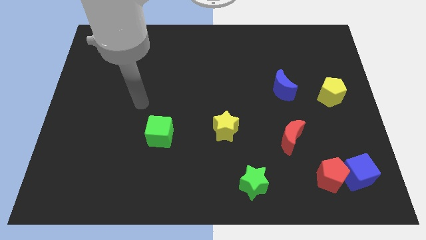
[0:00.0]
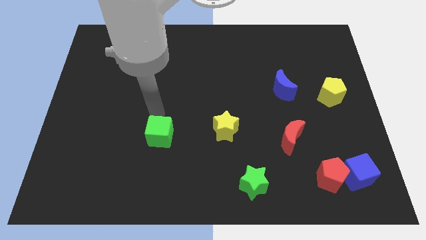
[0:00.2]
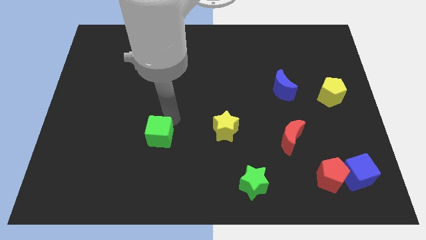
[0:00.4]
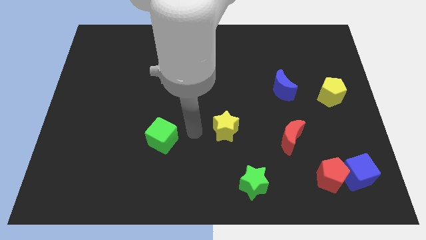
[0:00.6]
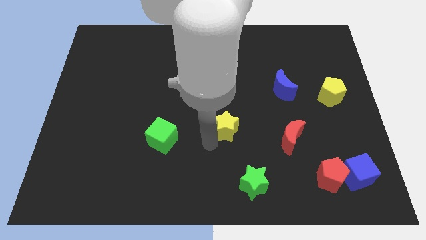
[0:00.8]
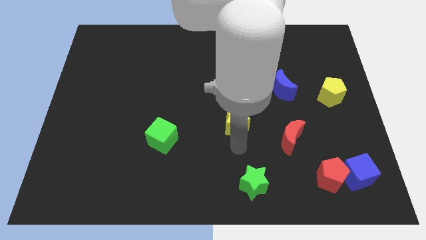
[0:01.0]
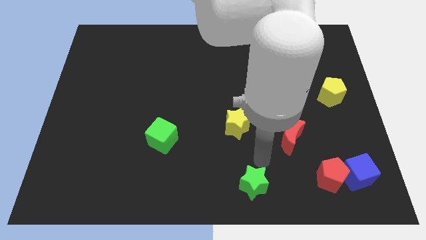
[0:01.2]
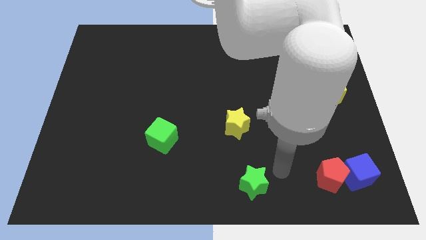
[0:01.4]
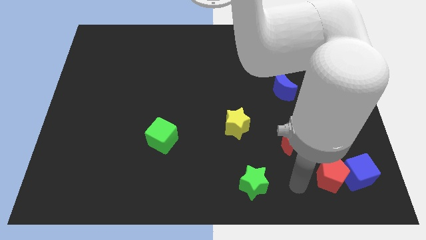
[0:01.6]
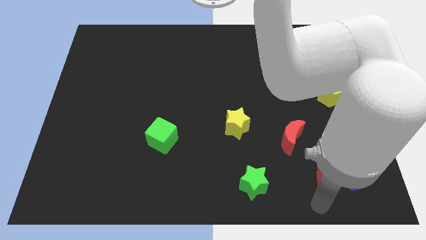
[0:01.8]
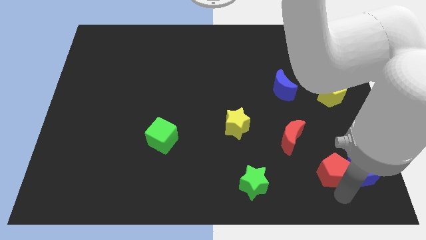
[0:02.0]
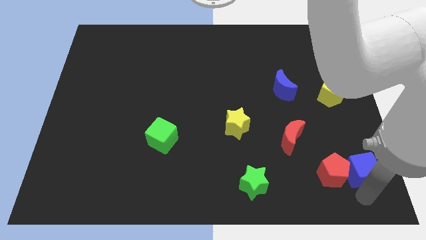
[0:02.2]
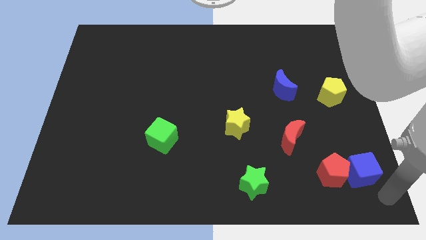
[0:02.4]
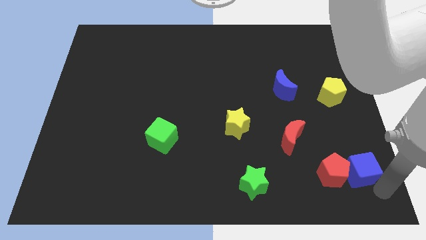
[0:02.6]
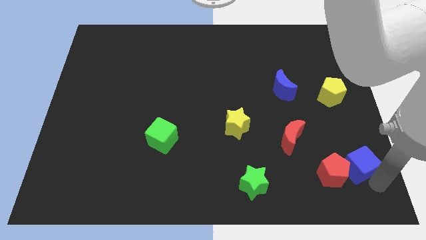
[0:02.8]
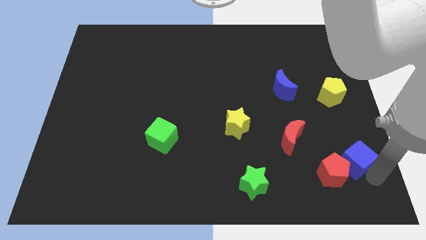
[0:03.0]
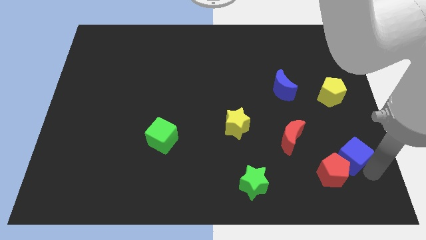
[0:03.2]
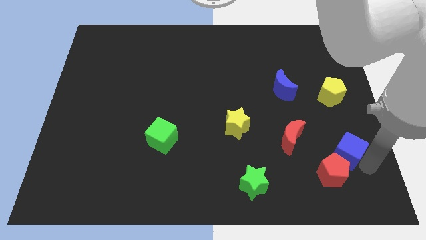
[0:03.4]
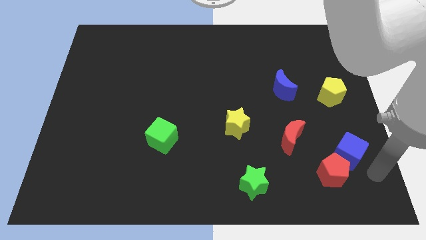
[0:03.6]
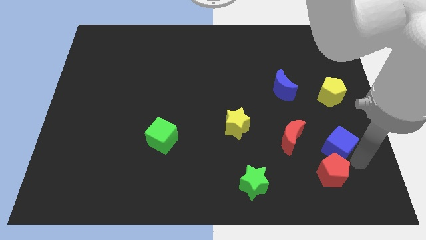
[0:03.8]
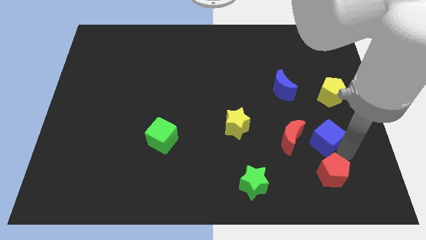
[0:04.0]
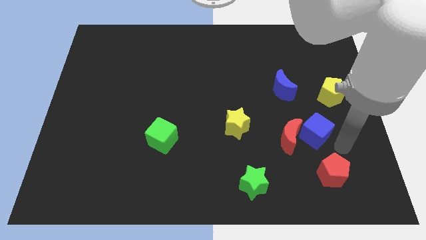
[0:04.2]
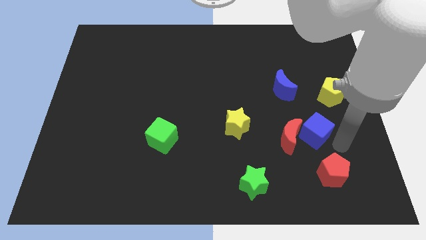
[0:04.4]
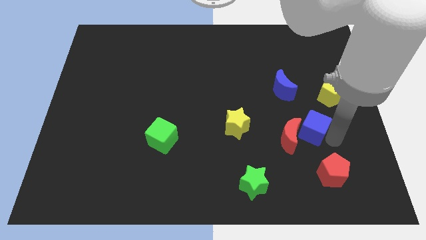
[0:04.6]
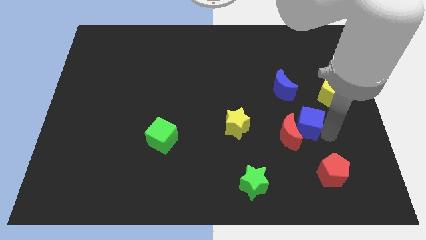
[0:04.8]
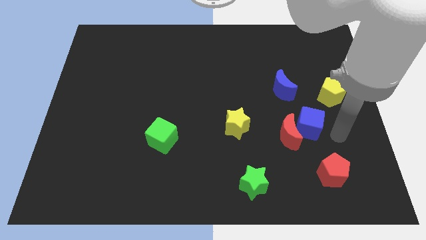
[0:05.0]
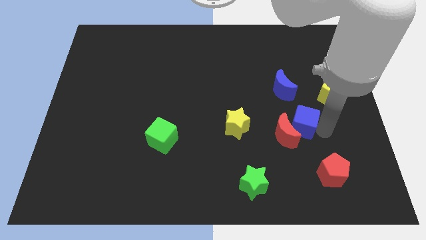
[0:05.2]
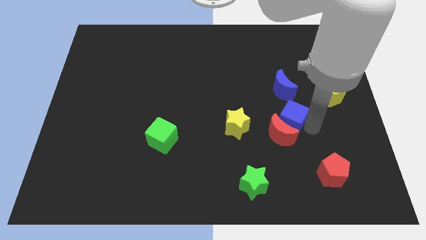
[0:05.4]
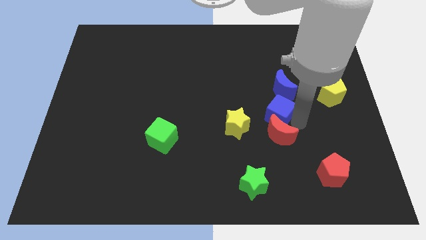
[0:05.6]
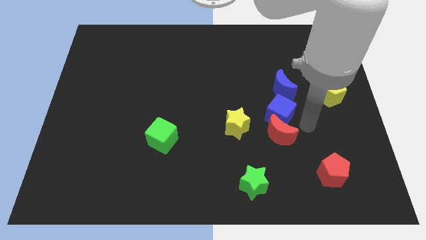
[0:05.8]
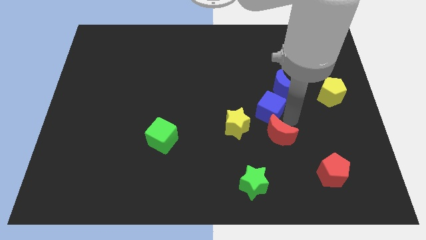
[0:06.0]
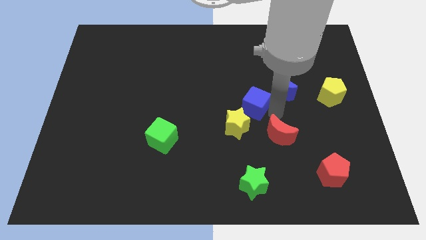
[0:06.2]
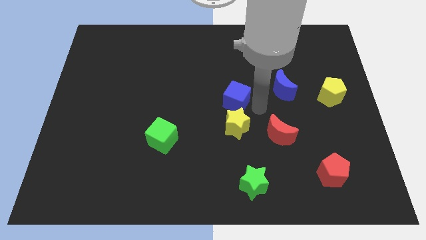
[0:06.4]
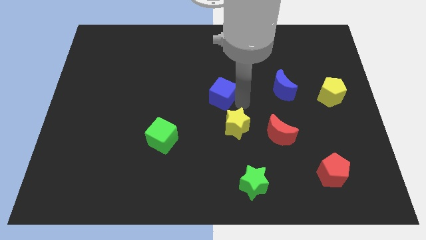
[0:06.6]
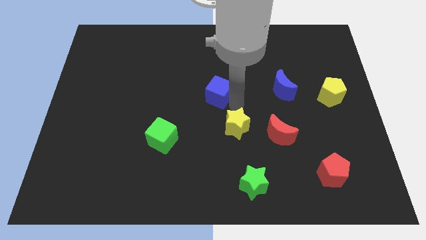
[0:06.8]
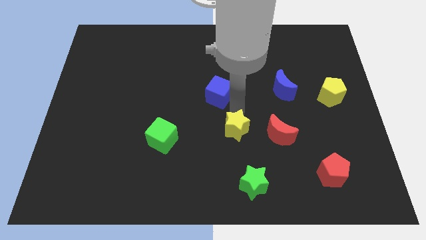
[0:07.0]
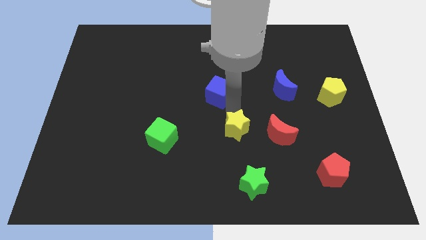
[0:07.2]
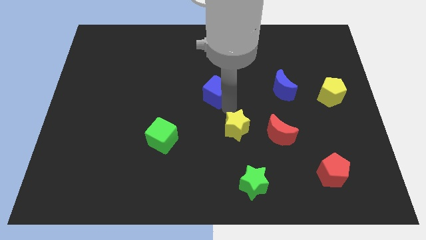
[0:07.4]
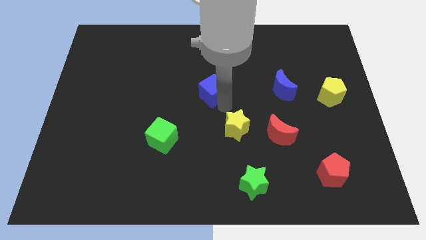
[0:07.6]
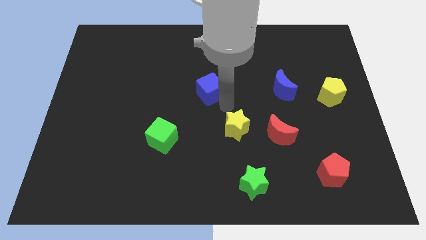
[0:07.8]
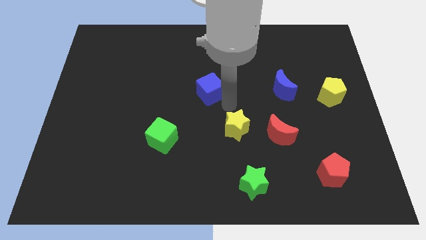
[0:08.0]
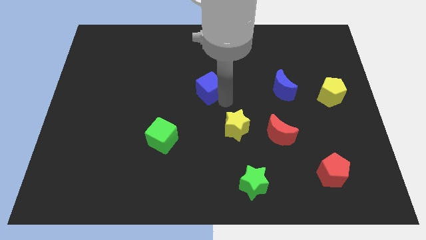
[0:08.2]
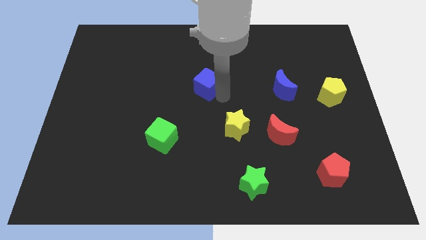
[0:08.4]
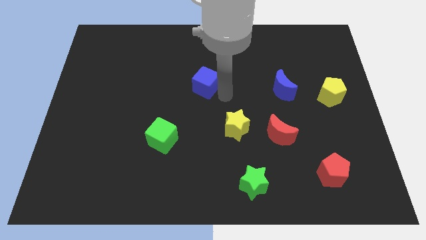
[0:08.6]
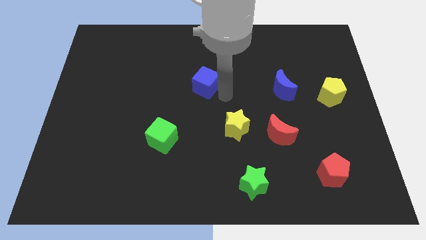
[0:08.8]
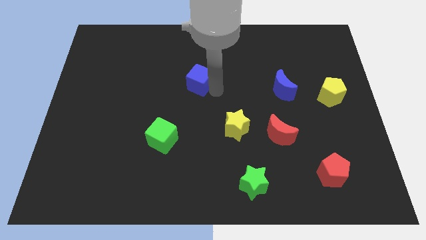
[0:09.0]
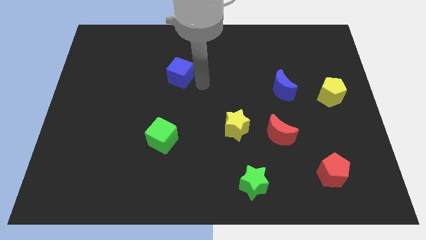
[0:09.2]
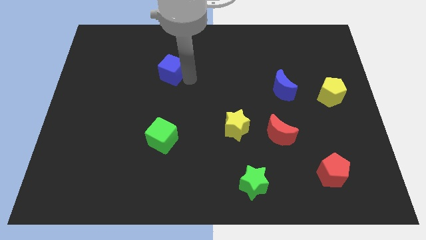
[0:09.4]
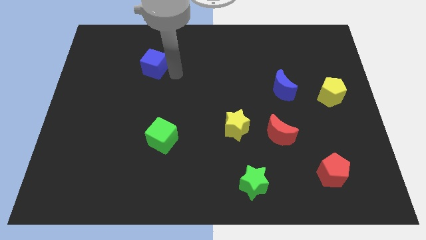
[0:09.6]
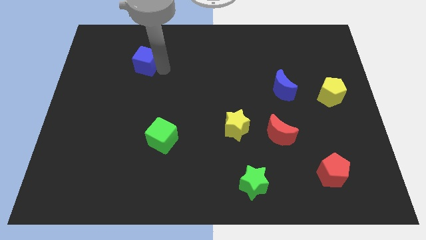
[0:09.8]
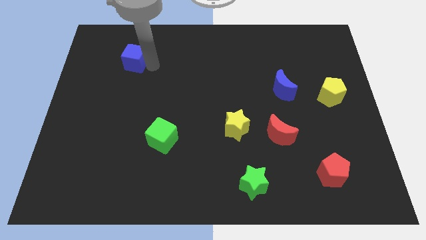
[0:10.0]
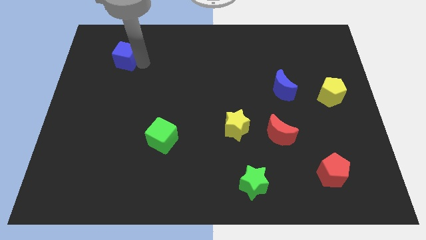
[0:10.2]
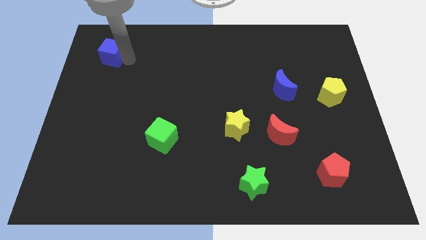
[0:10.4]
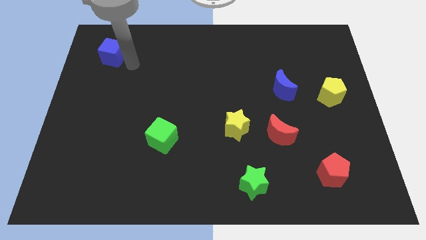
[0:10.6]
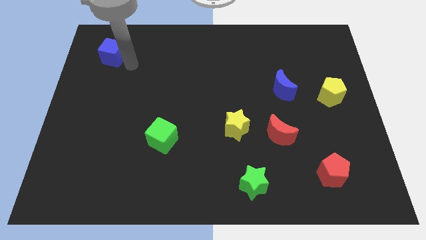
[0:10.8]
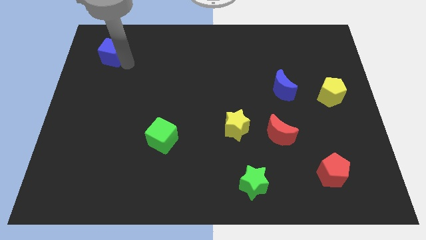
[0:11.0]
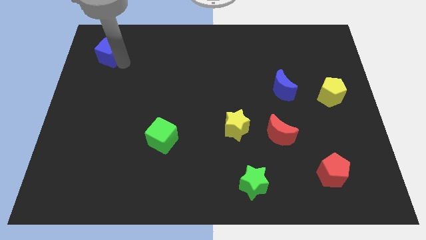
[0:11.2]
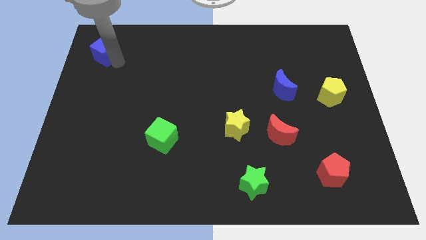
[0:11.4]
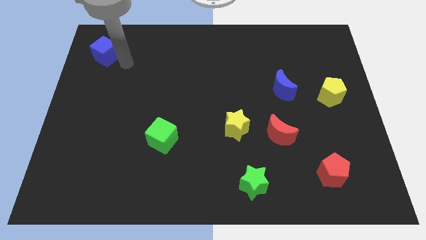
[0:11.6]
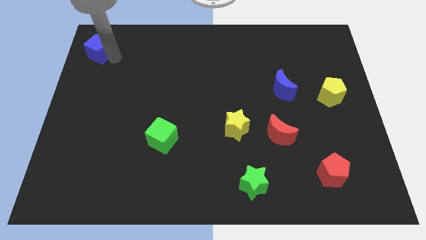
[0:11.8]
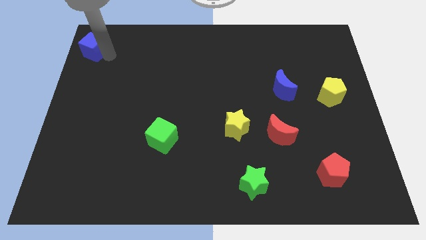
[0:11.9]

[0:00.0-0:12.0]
move the blue cube to the top left corner

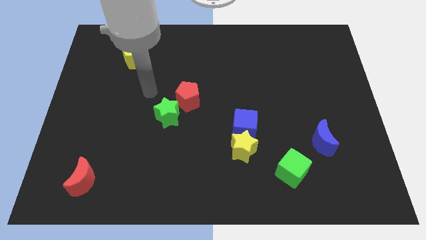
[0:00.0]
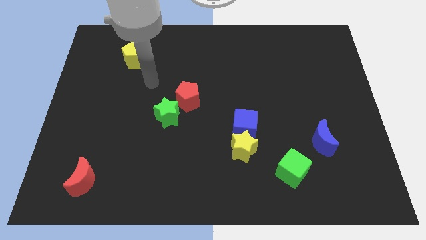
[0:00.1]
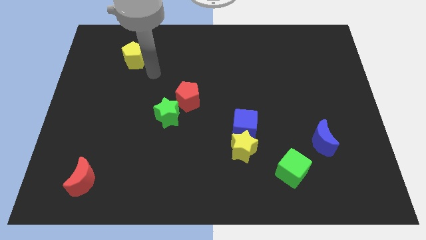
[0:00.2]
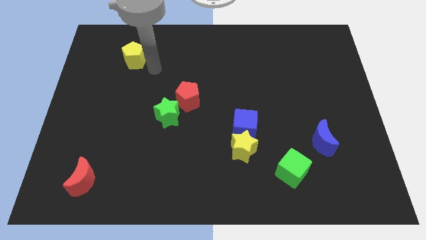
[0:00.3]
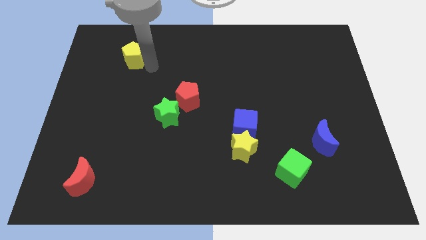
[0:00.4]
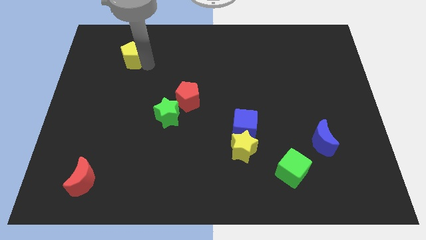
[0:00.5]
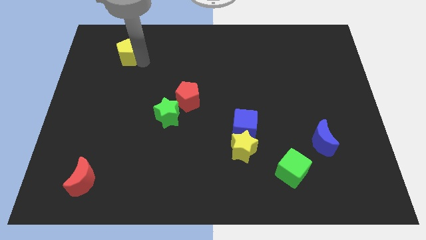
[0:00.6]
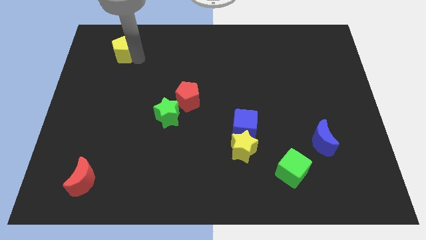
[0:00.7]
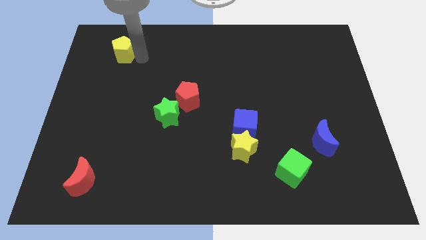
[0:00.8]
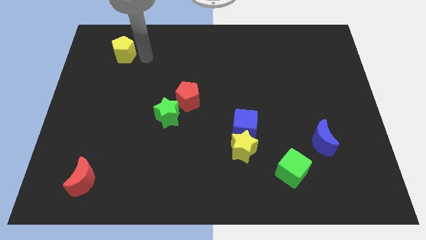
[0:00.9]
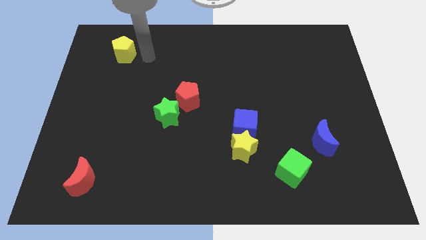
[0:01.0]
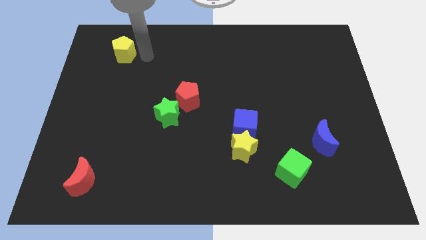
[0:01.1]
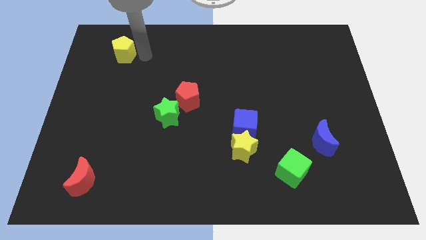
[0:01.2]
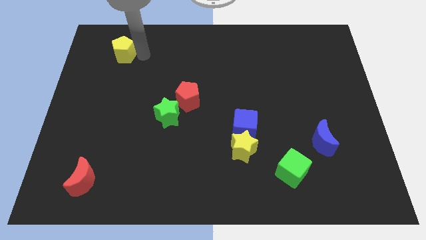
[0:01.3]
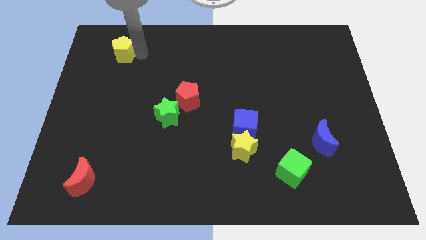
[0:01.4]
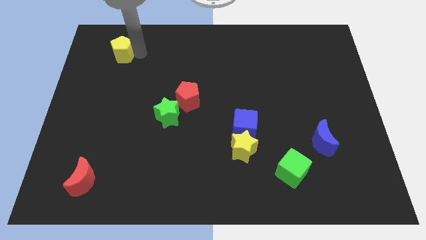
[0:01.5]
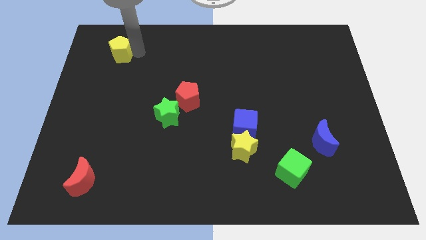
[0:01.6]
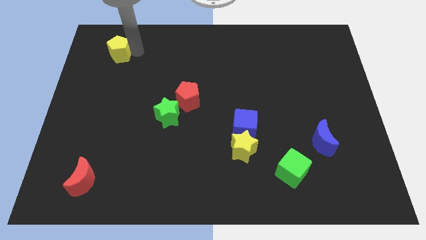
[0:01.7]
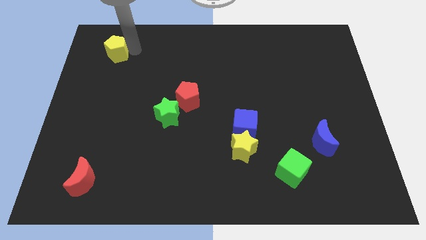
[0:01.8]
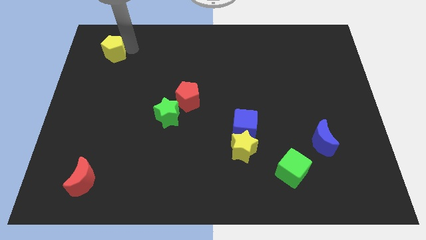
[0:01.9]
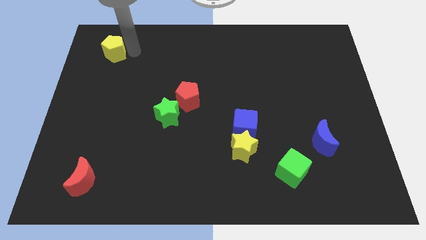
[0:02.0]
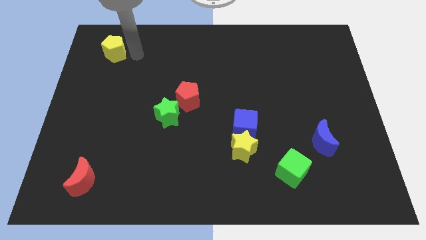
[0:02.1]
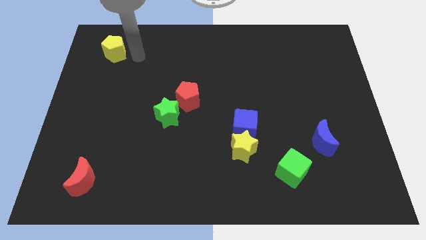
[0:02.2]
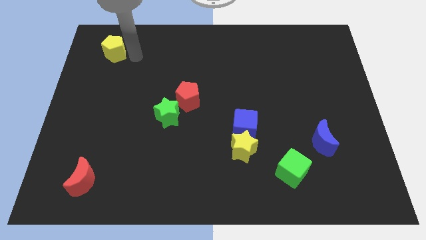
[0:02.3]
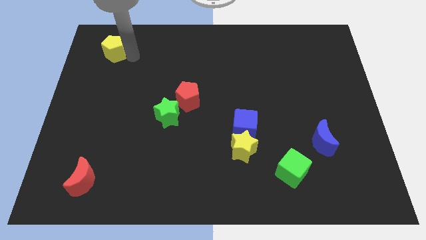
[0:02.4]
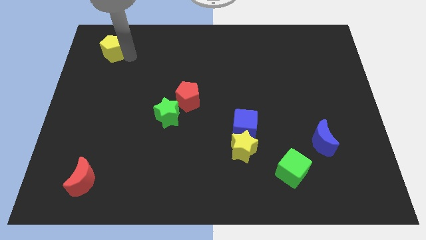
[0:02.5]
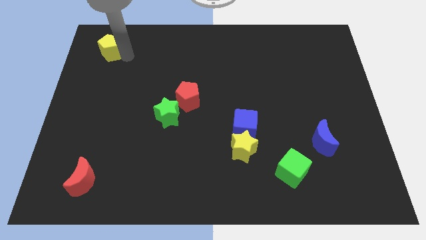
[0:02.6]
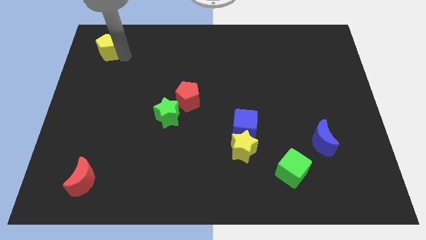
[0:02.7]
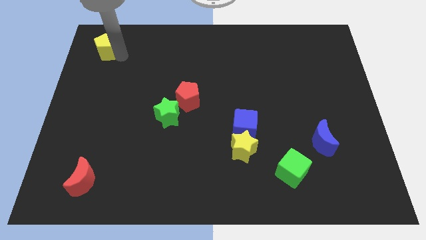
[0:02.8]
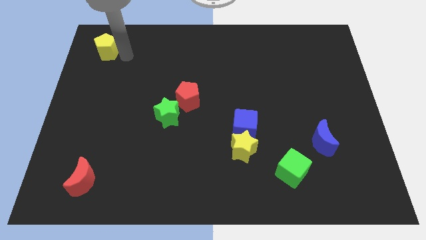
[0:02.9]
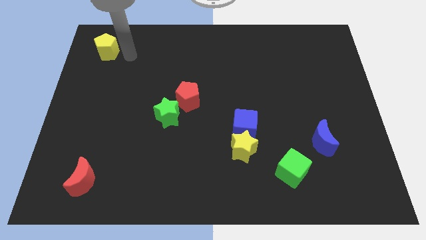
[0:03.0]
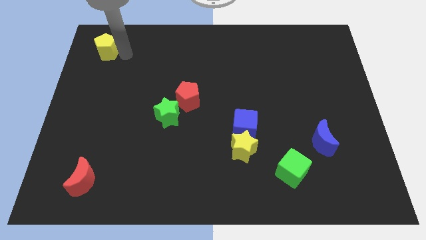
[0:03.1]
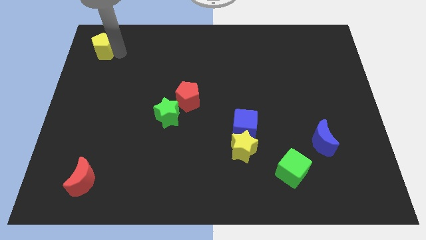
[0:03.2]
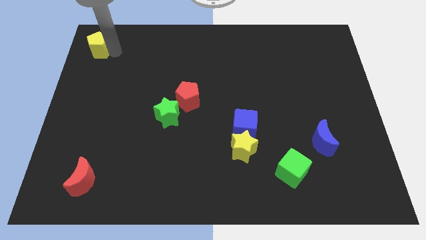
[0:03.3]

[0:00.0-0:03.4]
slide the yellow pentagon to the top left of the board
